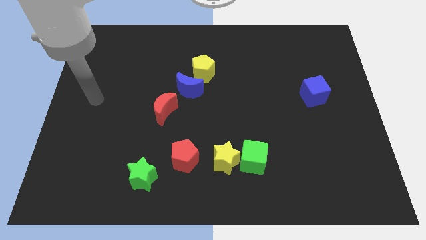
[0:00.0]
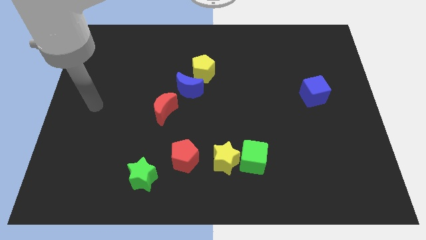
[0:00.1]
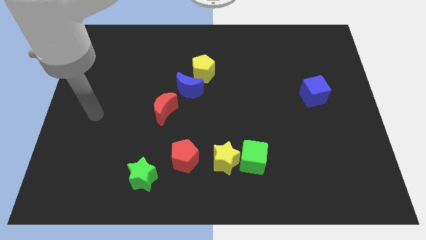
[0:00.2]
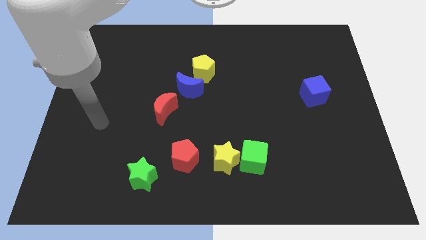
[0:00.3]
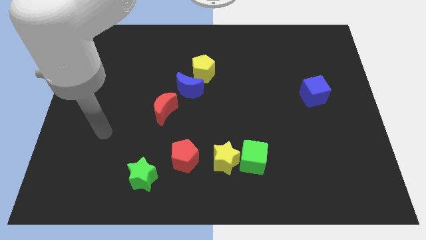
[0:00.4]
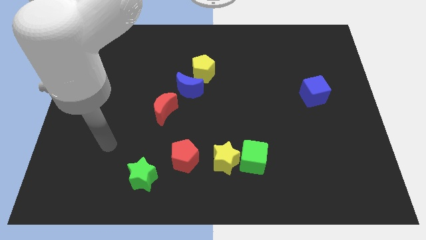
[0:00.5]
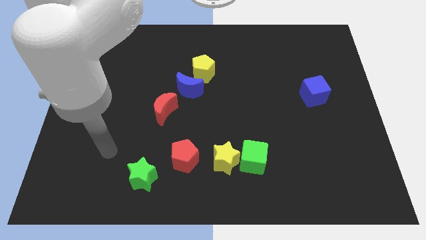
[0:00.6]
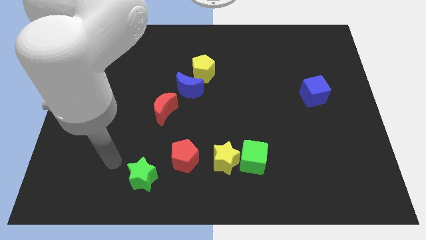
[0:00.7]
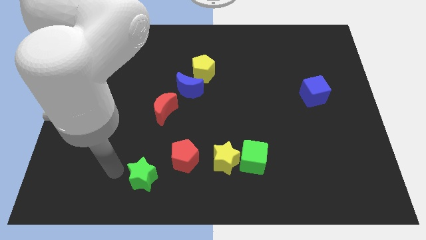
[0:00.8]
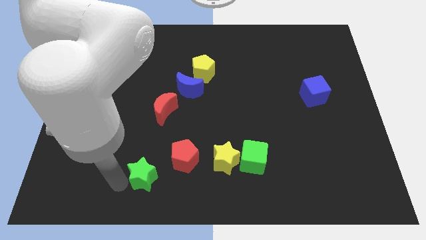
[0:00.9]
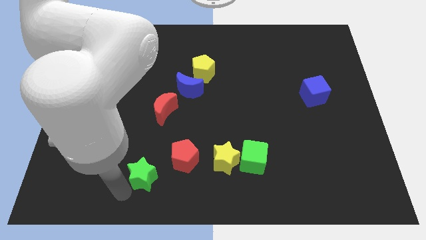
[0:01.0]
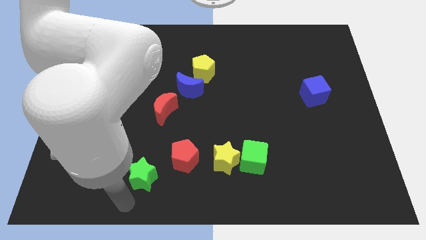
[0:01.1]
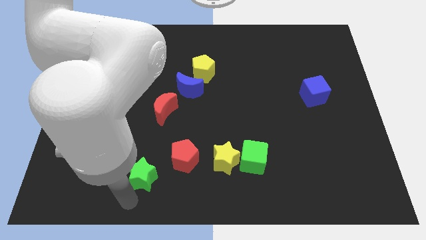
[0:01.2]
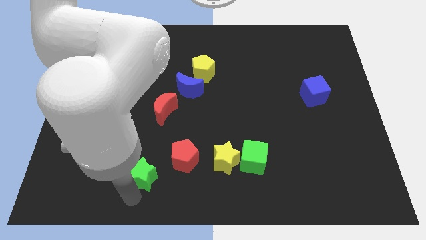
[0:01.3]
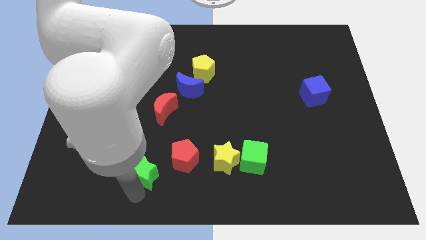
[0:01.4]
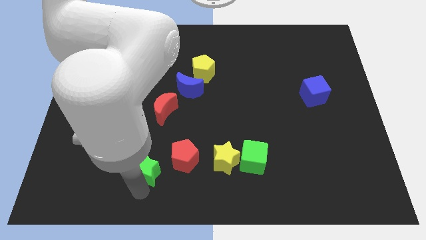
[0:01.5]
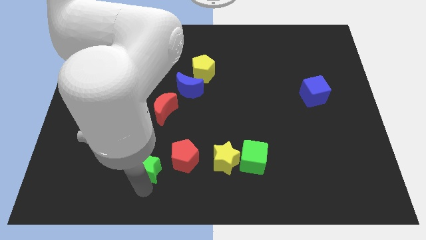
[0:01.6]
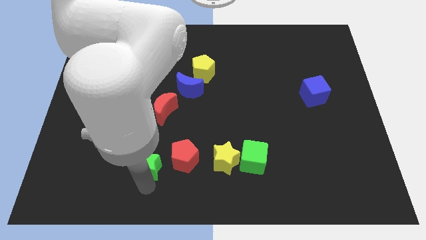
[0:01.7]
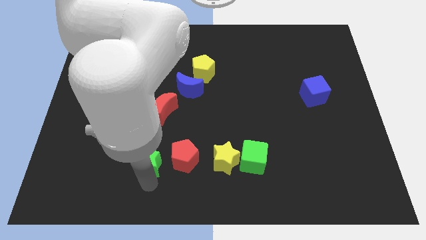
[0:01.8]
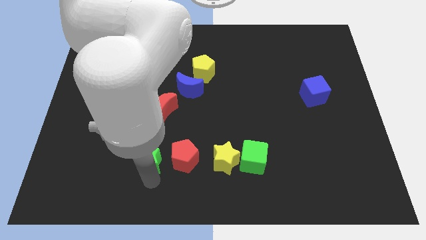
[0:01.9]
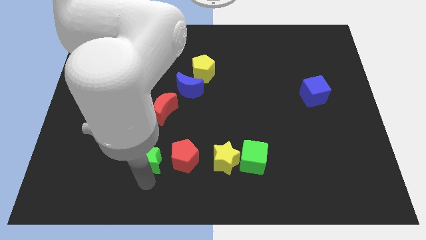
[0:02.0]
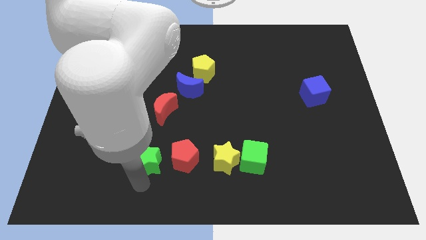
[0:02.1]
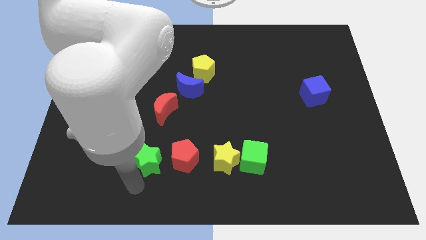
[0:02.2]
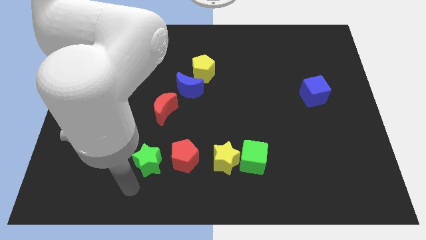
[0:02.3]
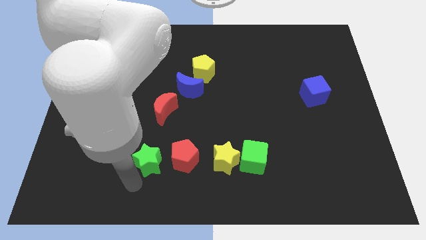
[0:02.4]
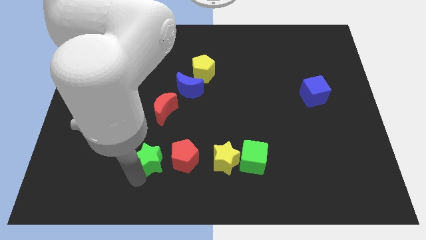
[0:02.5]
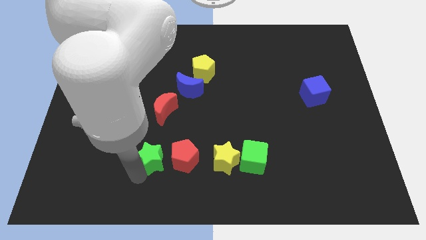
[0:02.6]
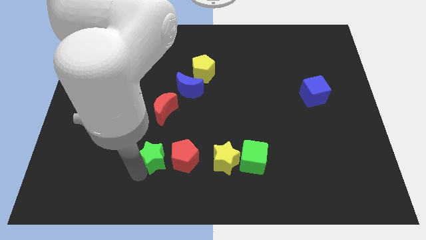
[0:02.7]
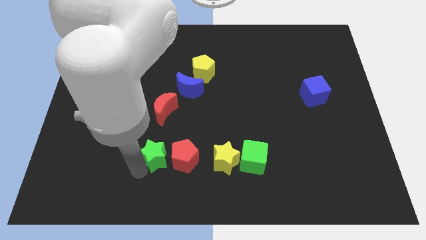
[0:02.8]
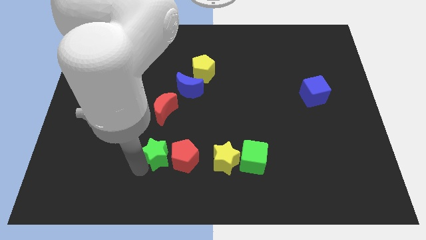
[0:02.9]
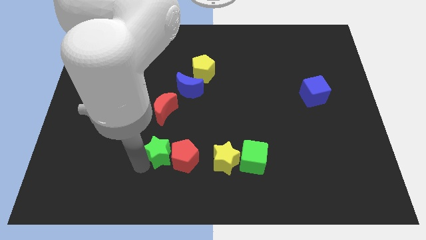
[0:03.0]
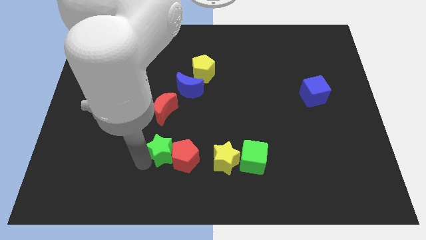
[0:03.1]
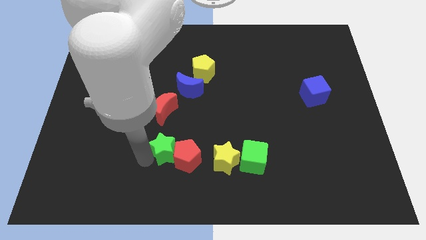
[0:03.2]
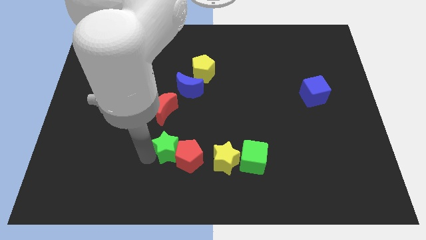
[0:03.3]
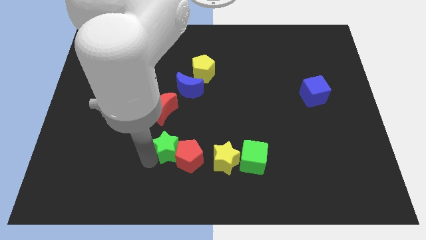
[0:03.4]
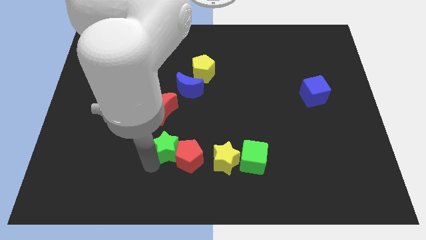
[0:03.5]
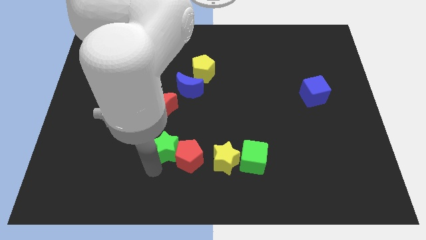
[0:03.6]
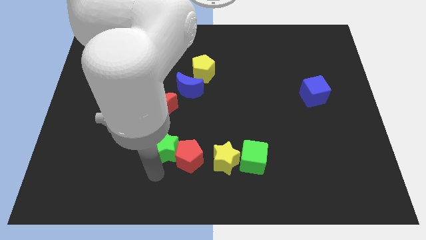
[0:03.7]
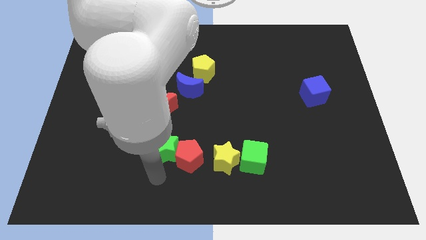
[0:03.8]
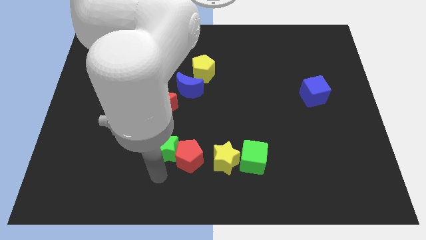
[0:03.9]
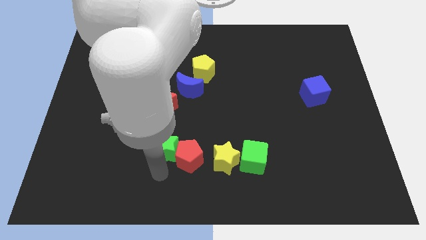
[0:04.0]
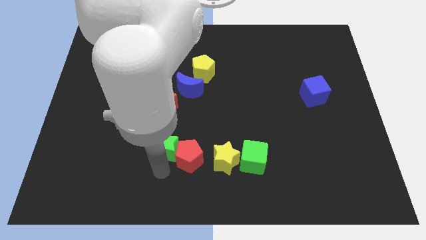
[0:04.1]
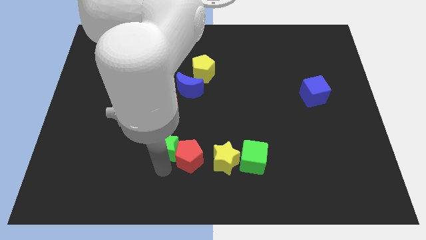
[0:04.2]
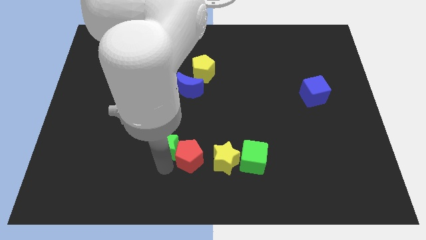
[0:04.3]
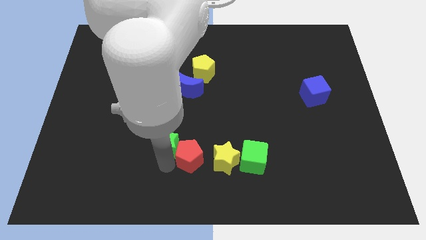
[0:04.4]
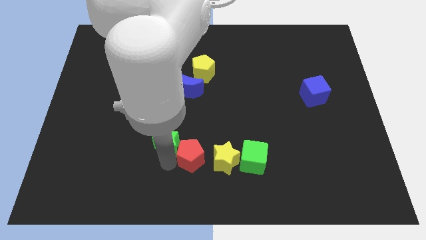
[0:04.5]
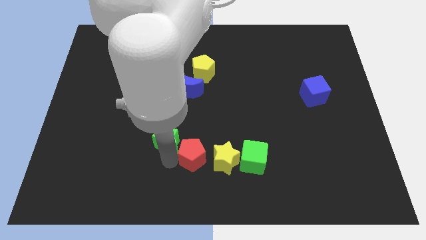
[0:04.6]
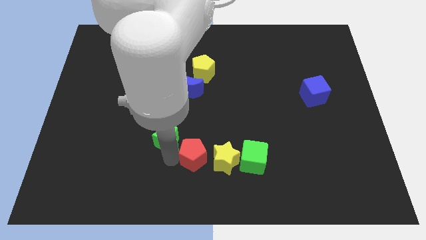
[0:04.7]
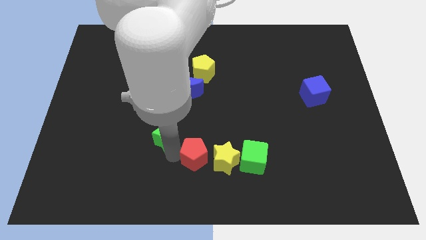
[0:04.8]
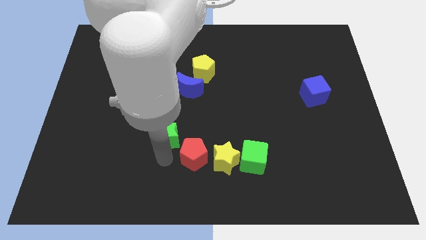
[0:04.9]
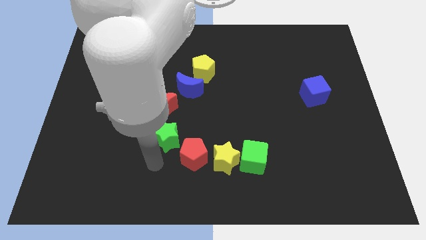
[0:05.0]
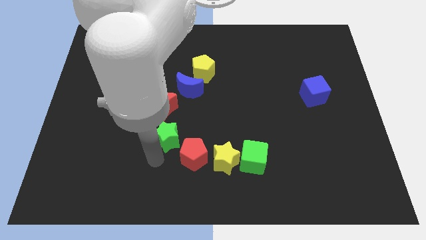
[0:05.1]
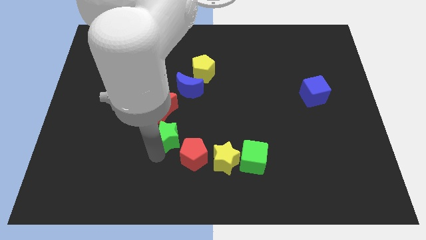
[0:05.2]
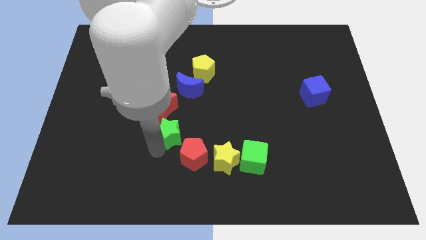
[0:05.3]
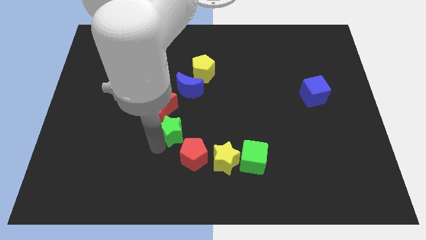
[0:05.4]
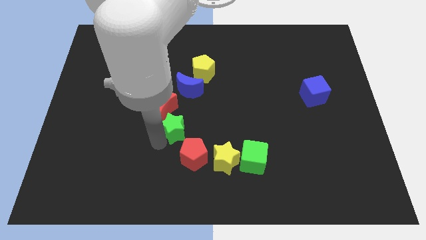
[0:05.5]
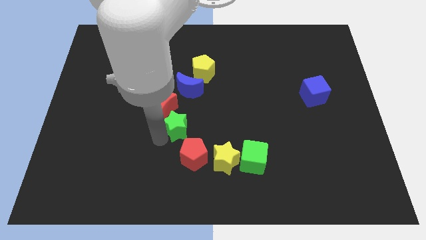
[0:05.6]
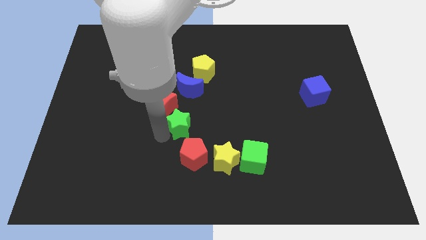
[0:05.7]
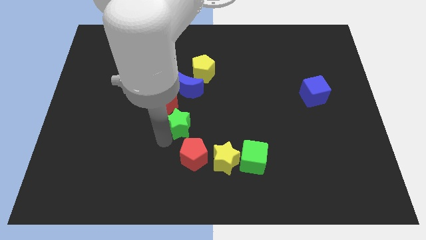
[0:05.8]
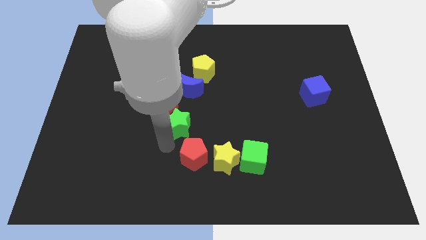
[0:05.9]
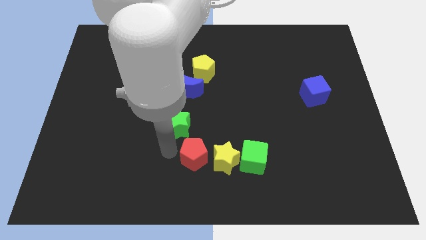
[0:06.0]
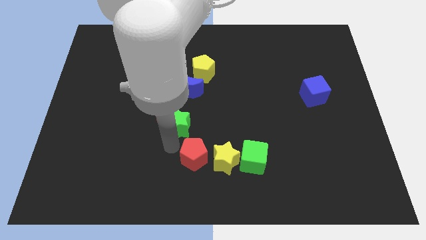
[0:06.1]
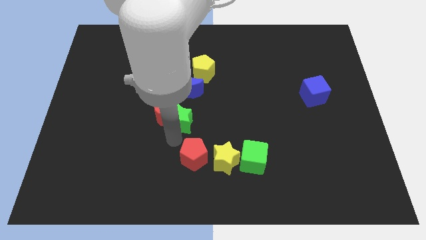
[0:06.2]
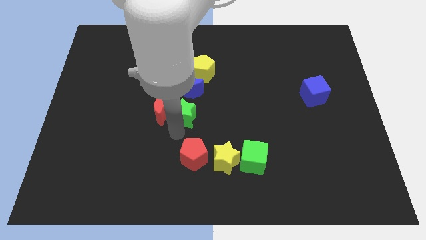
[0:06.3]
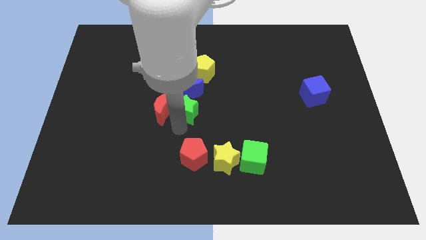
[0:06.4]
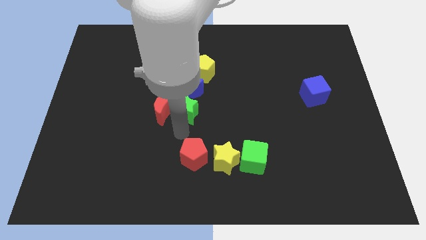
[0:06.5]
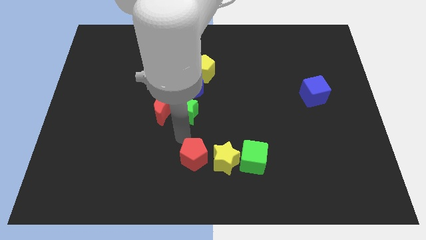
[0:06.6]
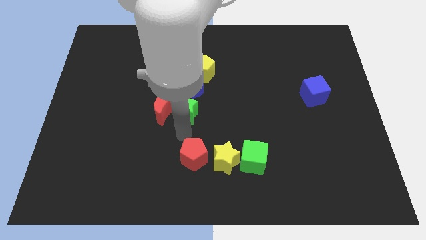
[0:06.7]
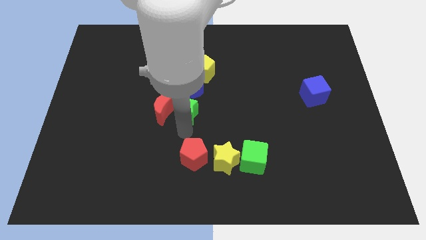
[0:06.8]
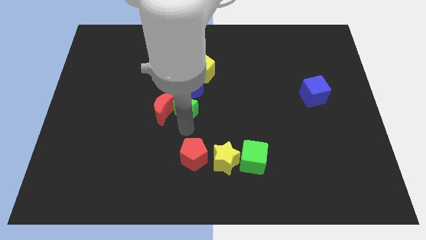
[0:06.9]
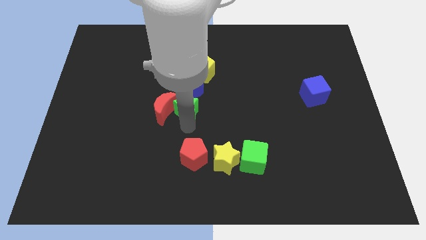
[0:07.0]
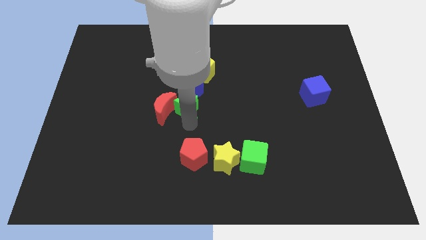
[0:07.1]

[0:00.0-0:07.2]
move the green star close to the blue moon
